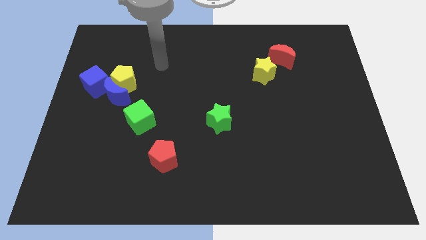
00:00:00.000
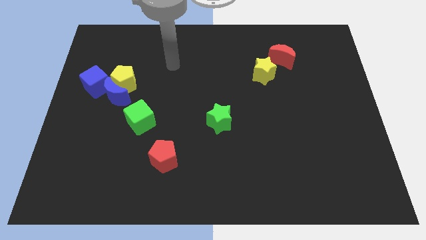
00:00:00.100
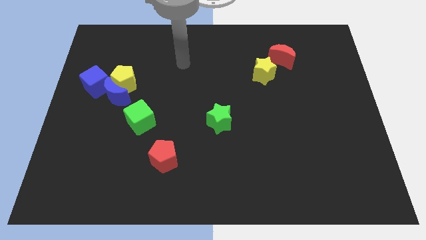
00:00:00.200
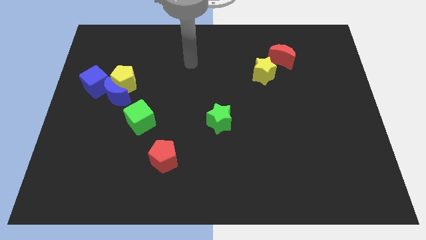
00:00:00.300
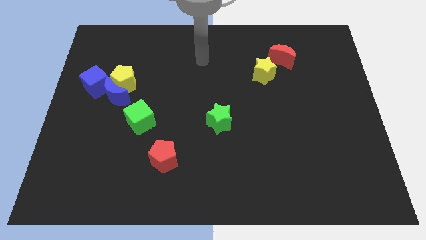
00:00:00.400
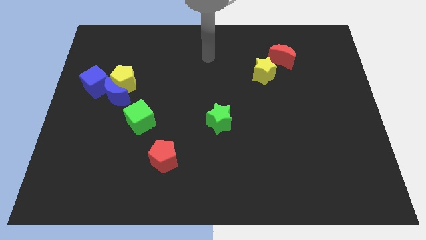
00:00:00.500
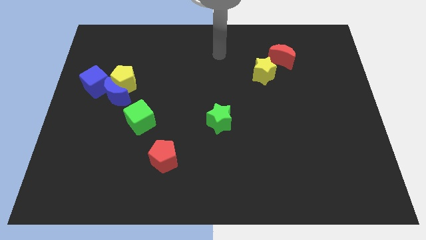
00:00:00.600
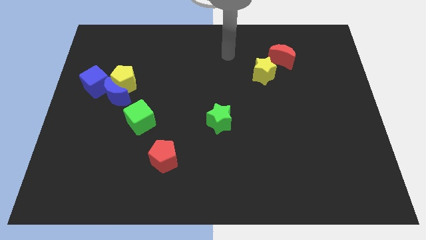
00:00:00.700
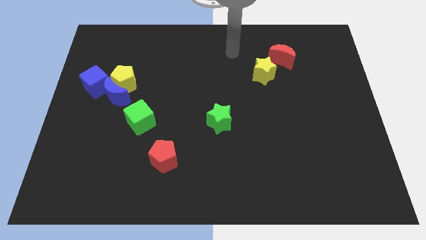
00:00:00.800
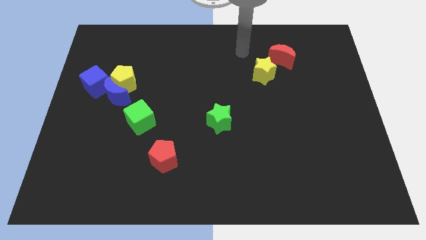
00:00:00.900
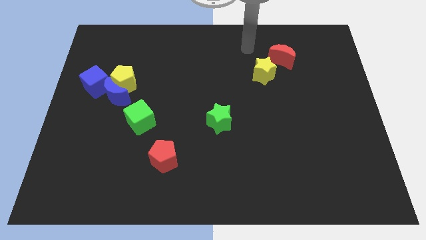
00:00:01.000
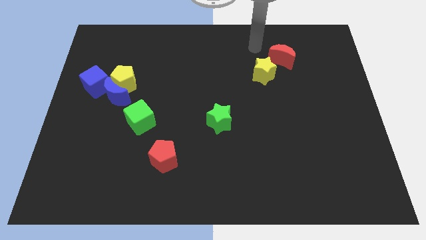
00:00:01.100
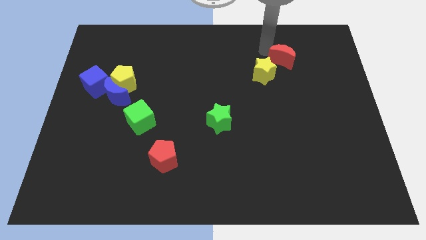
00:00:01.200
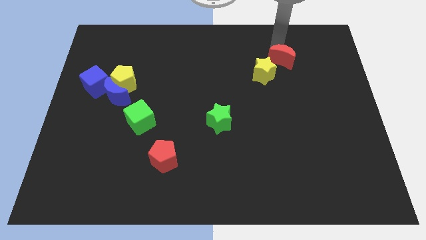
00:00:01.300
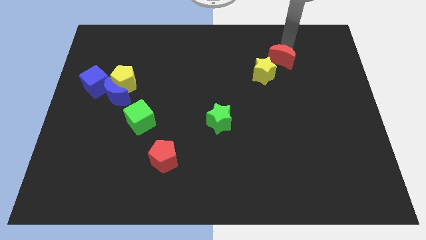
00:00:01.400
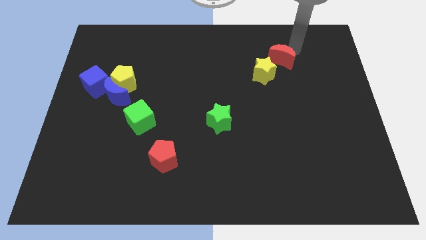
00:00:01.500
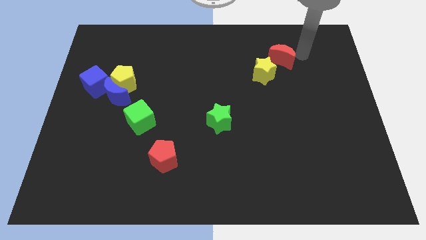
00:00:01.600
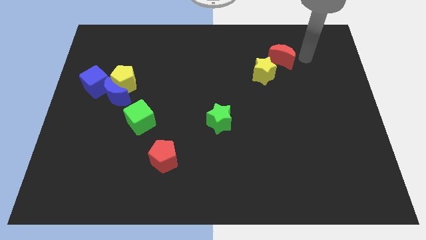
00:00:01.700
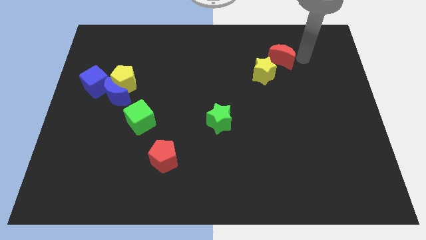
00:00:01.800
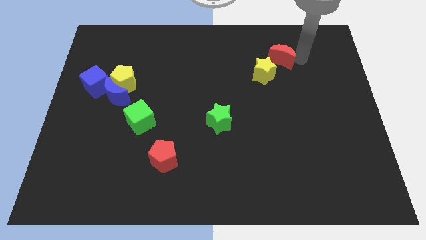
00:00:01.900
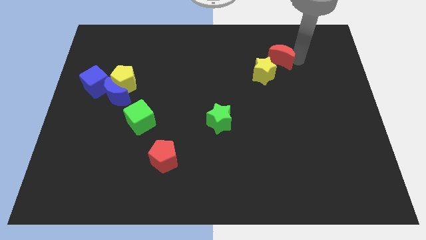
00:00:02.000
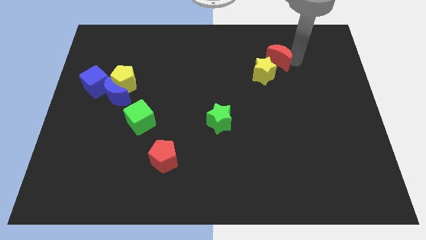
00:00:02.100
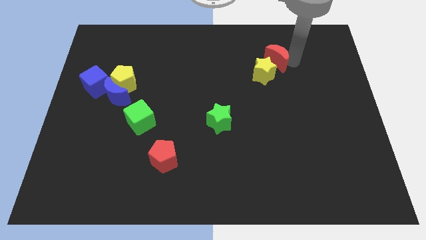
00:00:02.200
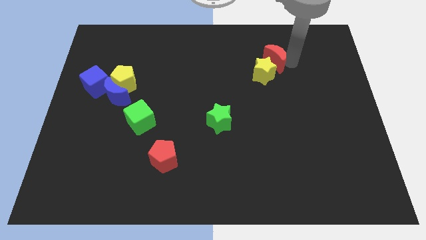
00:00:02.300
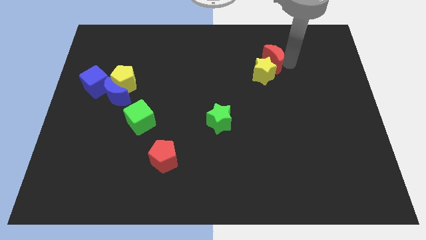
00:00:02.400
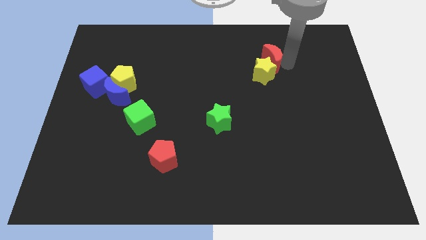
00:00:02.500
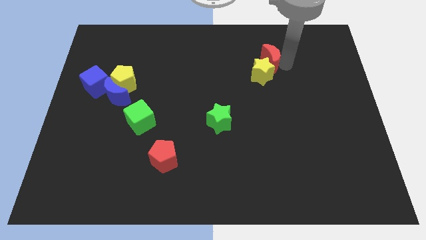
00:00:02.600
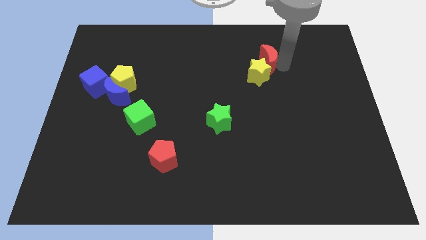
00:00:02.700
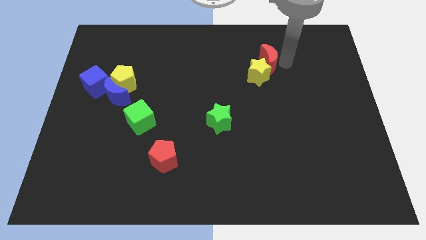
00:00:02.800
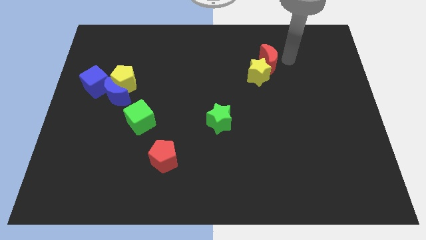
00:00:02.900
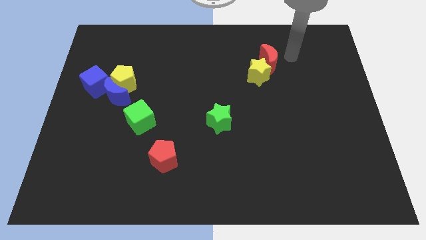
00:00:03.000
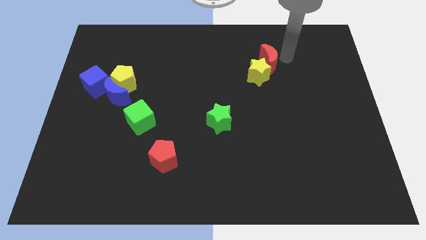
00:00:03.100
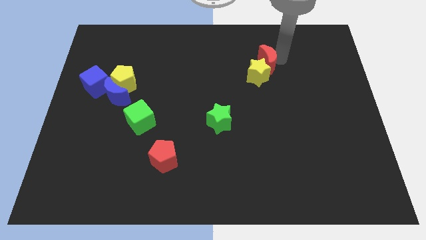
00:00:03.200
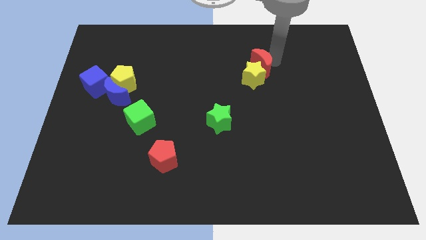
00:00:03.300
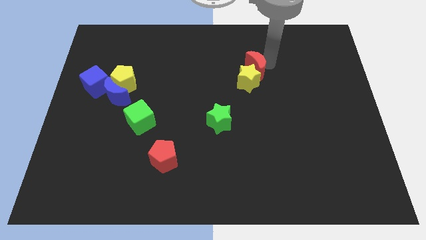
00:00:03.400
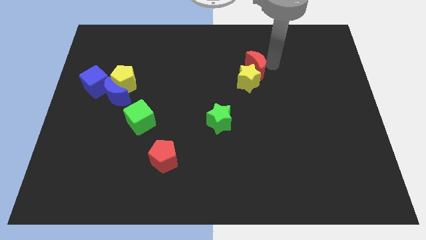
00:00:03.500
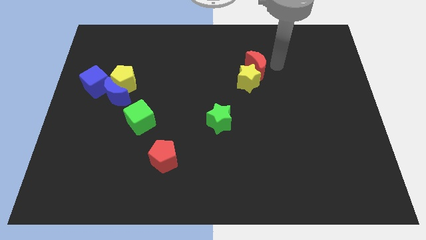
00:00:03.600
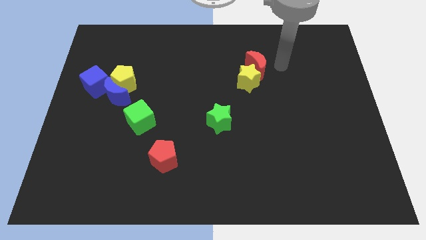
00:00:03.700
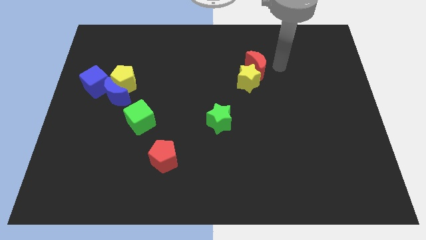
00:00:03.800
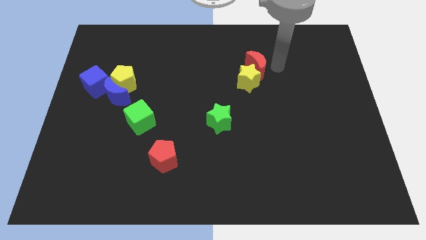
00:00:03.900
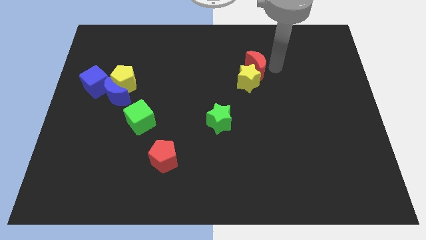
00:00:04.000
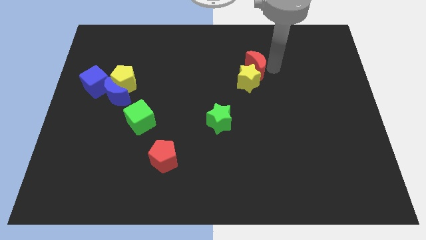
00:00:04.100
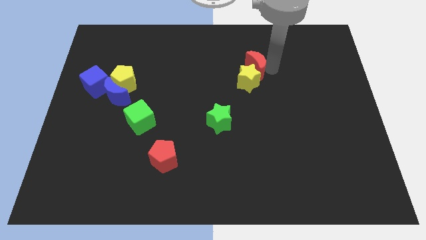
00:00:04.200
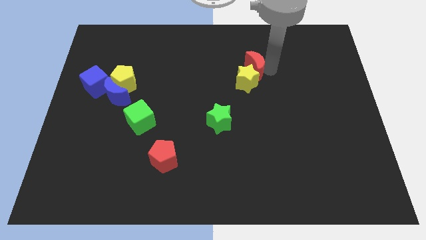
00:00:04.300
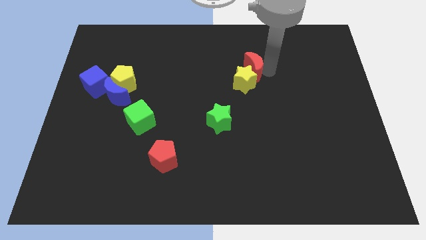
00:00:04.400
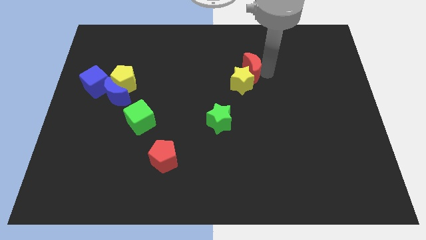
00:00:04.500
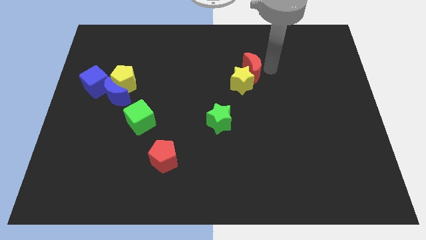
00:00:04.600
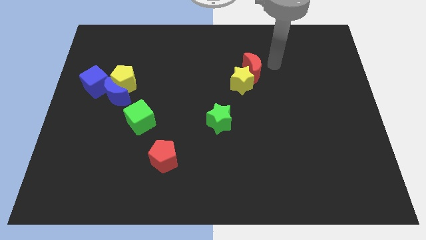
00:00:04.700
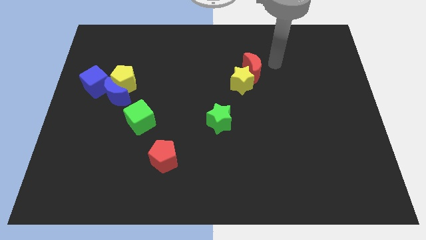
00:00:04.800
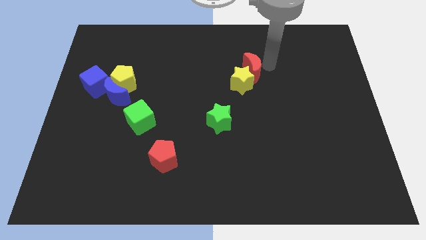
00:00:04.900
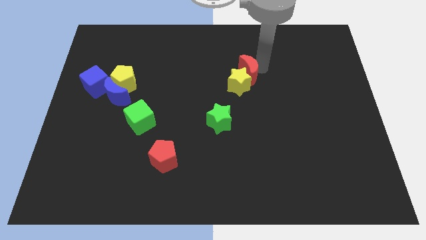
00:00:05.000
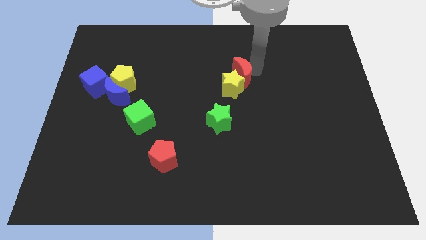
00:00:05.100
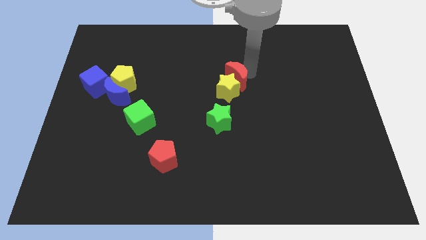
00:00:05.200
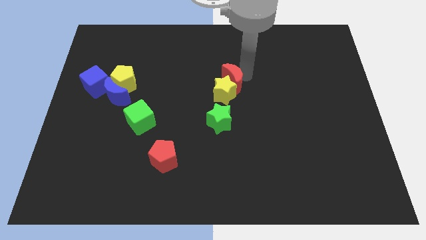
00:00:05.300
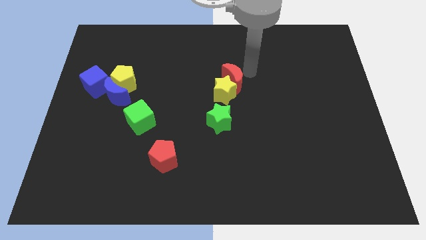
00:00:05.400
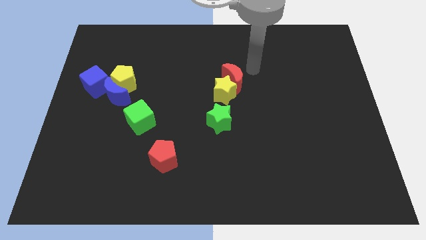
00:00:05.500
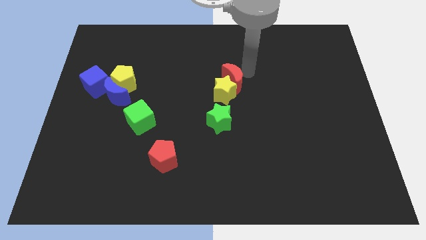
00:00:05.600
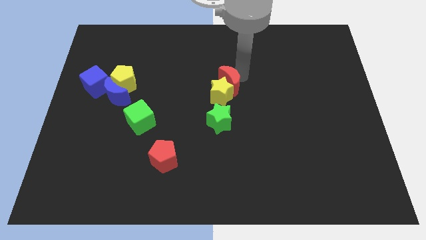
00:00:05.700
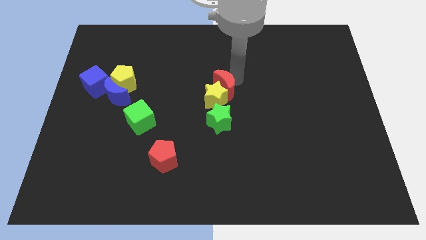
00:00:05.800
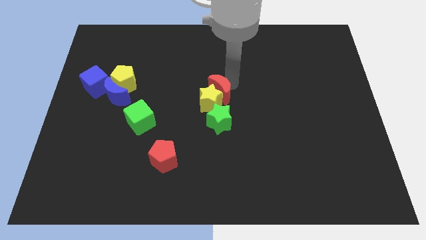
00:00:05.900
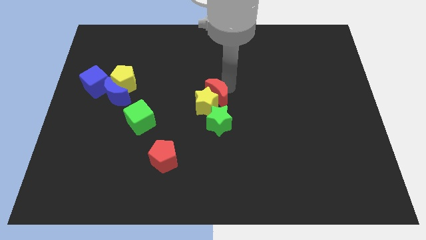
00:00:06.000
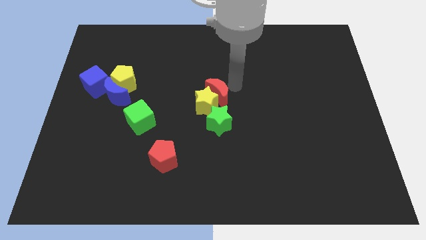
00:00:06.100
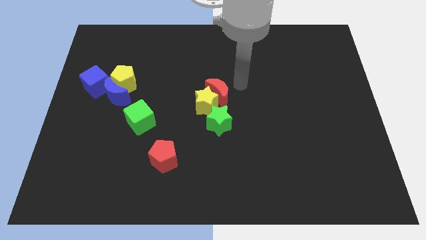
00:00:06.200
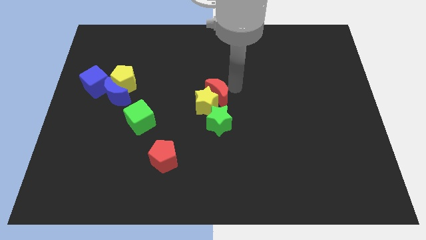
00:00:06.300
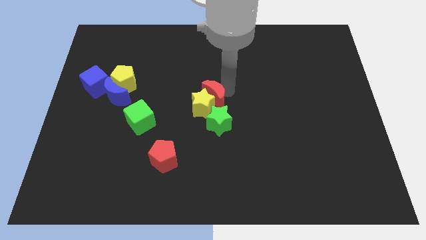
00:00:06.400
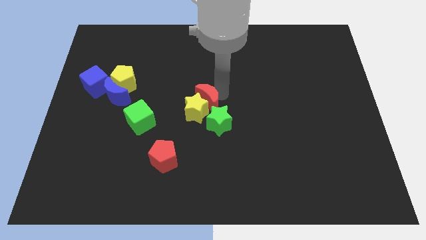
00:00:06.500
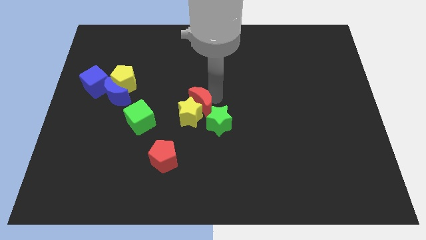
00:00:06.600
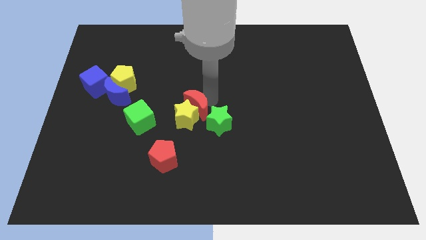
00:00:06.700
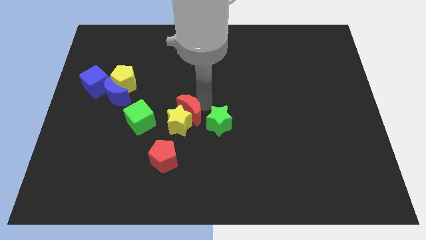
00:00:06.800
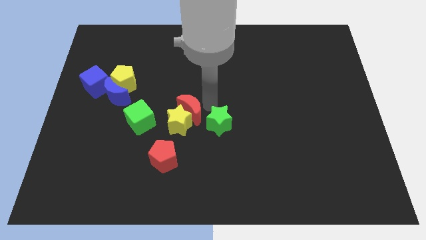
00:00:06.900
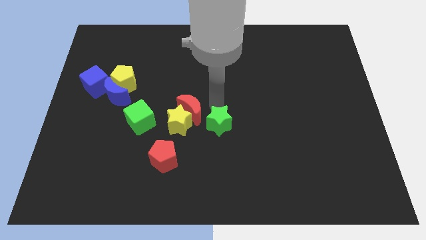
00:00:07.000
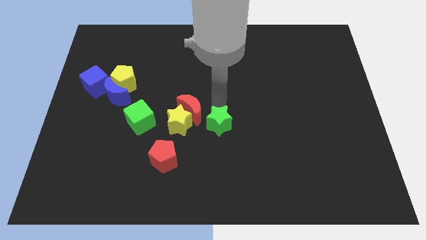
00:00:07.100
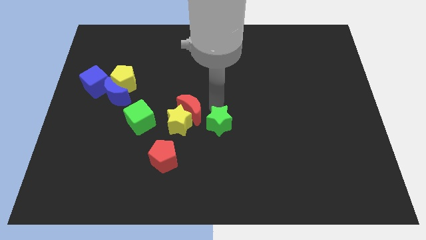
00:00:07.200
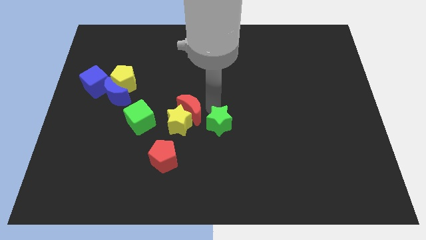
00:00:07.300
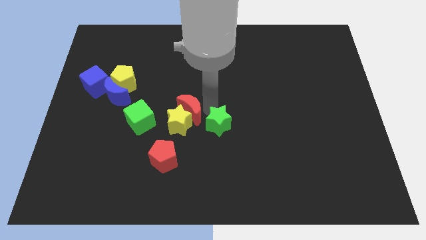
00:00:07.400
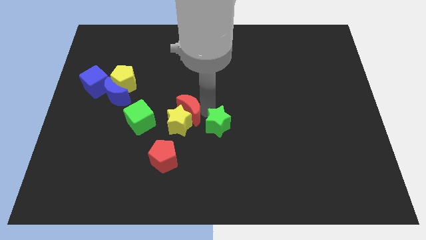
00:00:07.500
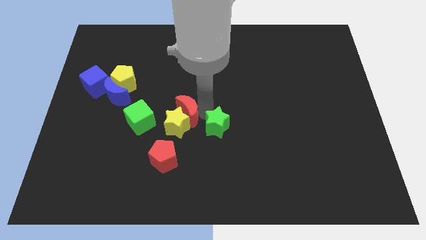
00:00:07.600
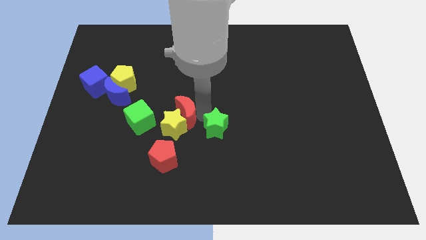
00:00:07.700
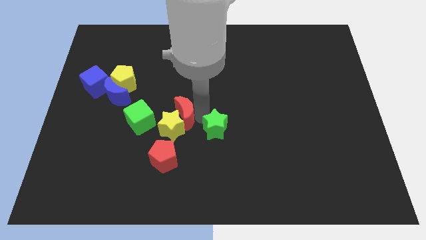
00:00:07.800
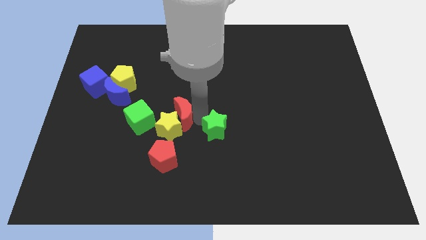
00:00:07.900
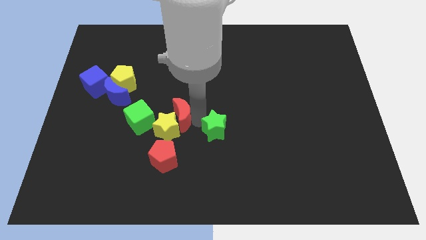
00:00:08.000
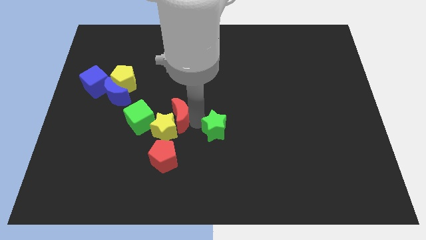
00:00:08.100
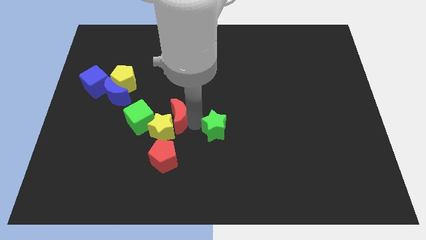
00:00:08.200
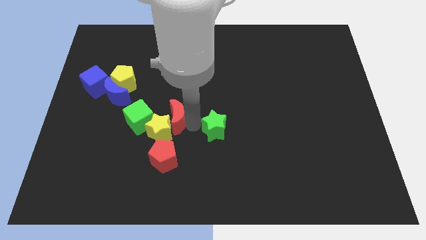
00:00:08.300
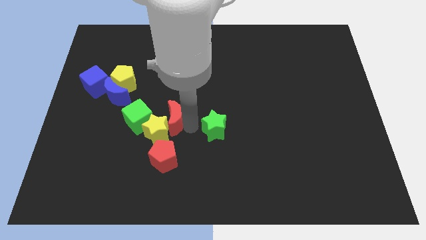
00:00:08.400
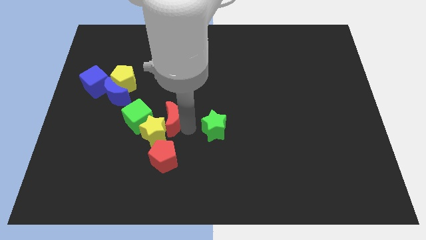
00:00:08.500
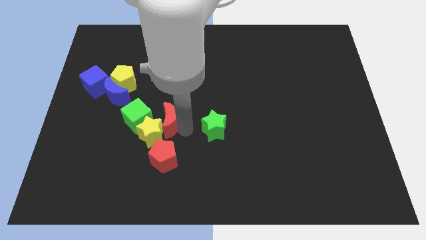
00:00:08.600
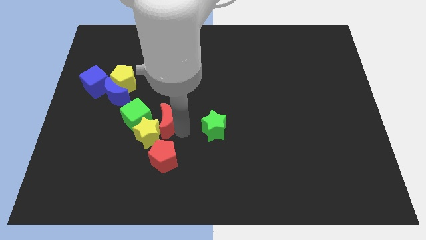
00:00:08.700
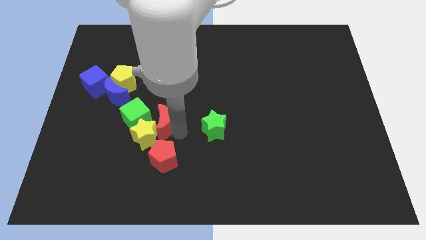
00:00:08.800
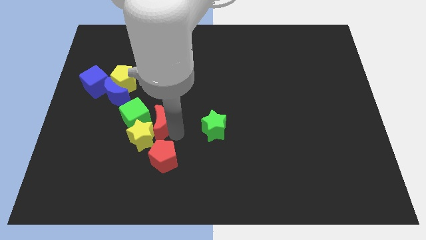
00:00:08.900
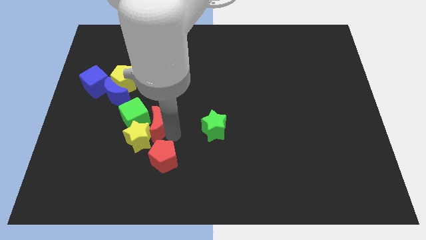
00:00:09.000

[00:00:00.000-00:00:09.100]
move the red moon to the green cube
